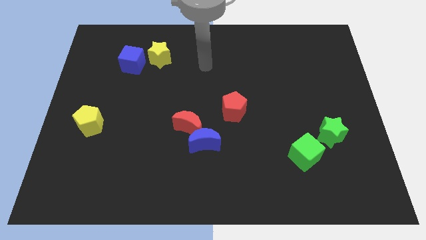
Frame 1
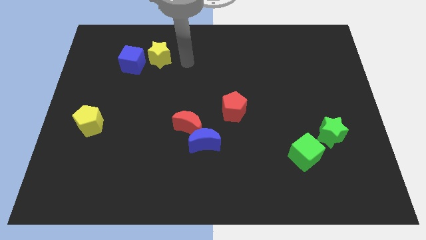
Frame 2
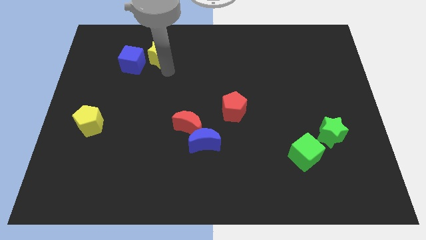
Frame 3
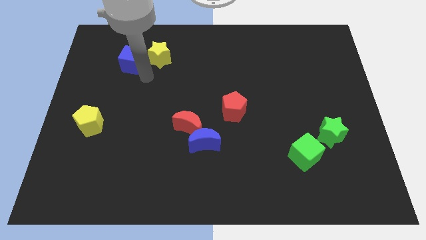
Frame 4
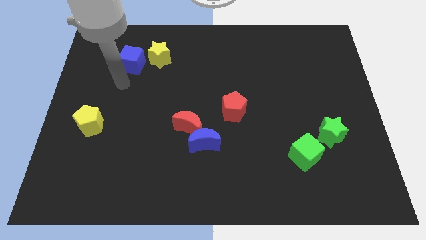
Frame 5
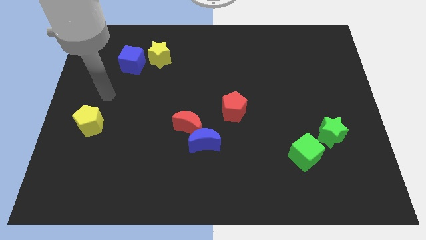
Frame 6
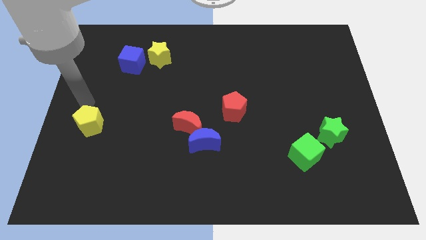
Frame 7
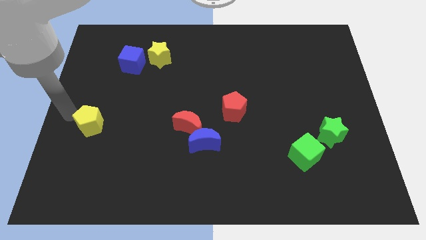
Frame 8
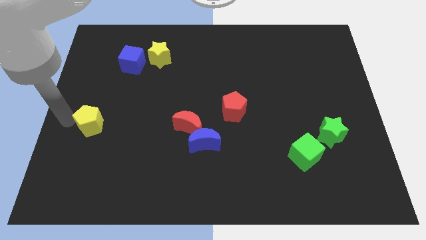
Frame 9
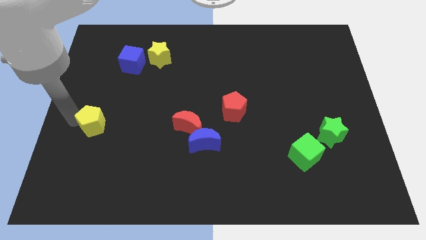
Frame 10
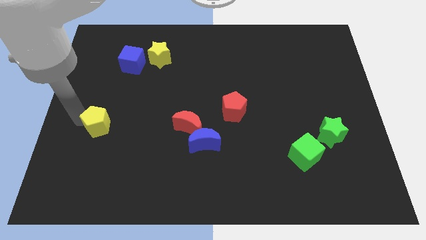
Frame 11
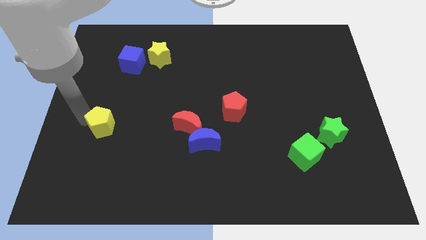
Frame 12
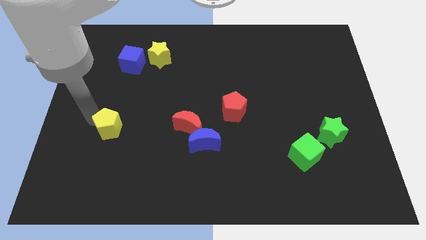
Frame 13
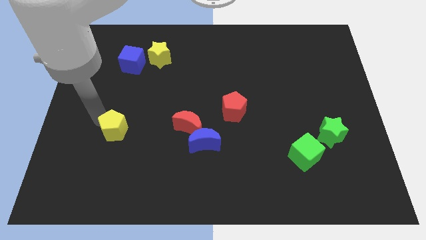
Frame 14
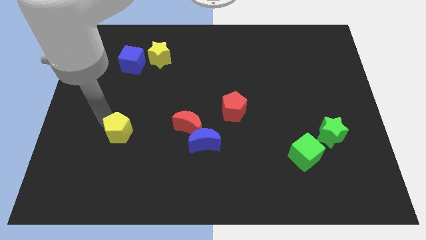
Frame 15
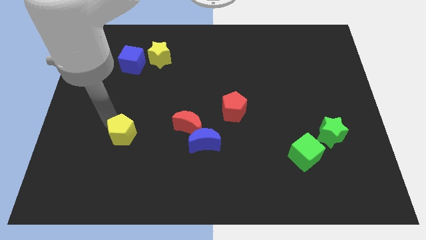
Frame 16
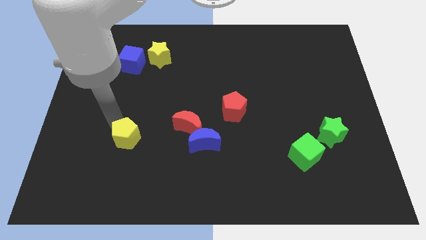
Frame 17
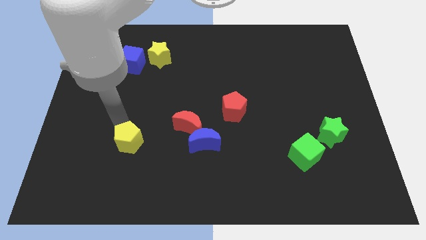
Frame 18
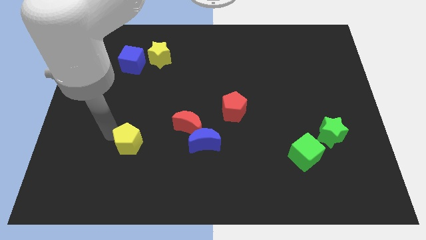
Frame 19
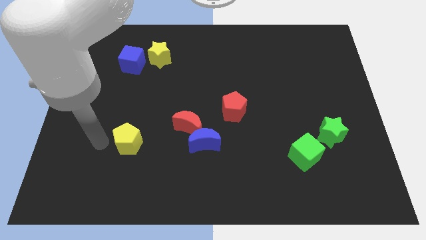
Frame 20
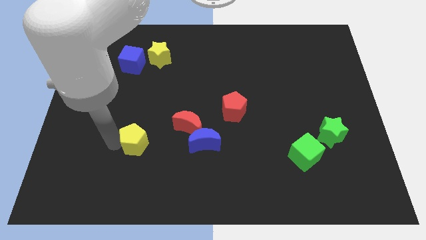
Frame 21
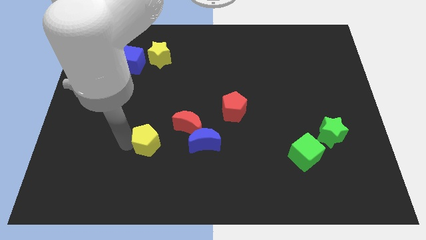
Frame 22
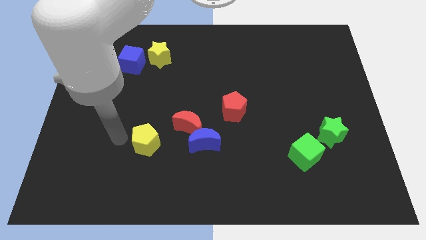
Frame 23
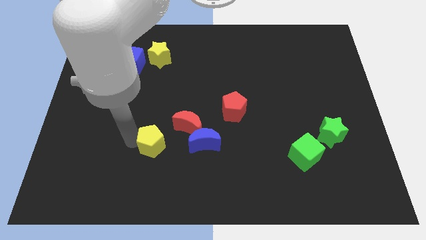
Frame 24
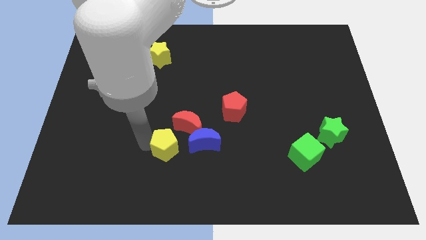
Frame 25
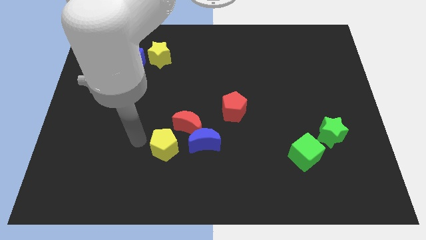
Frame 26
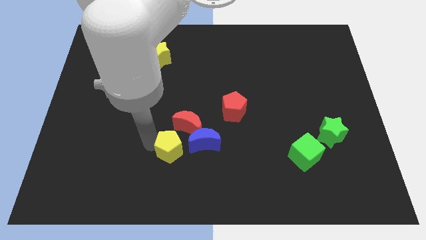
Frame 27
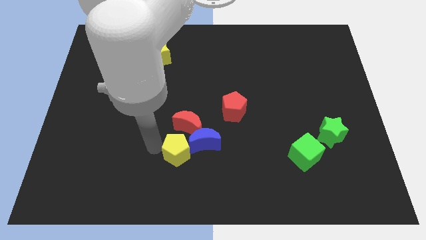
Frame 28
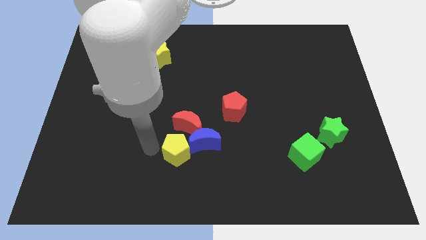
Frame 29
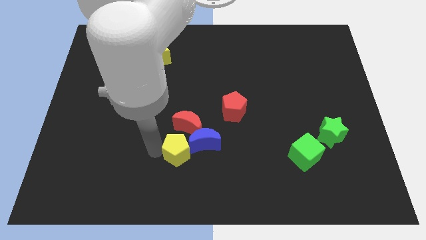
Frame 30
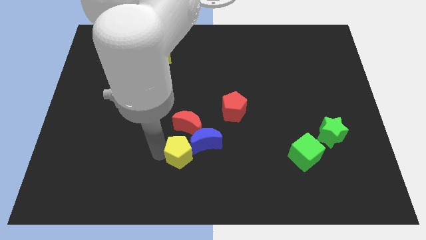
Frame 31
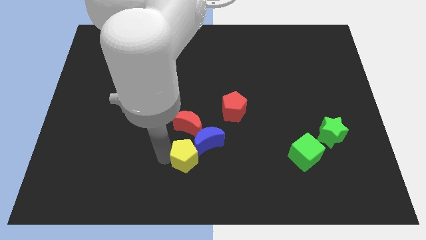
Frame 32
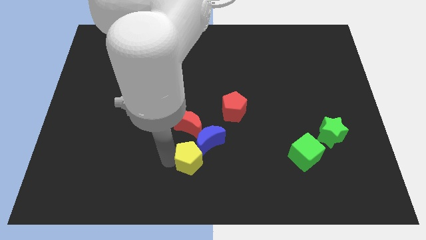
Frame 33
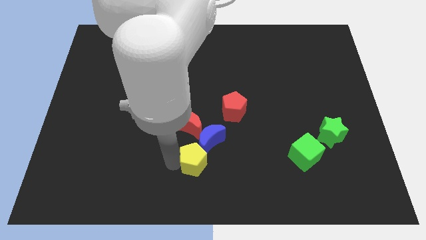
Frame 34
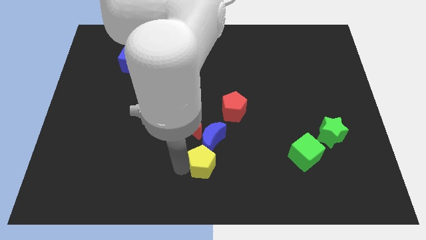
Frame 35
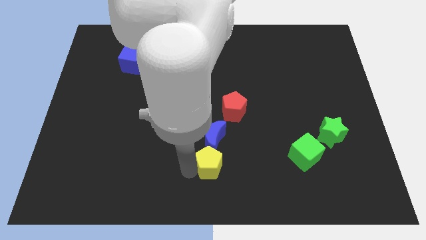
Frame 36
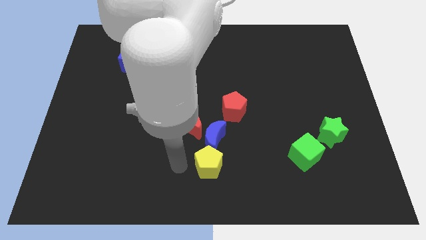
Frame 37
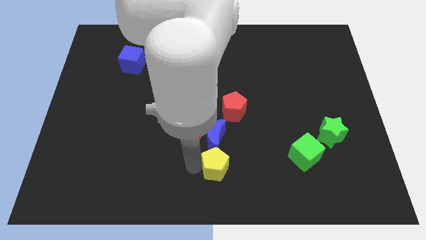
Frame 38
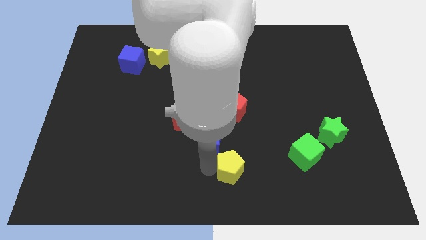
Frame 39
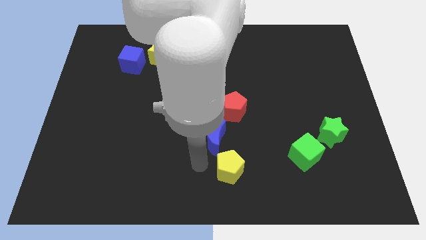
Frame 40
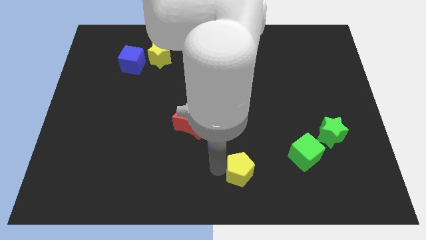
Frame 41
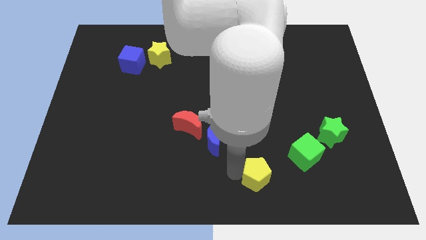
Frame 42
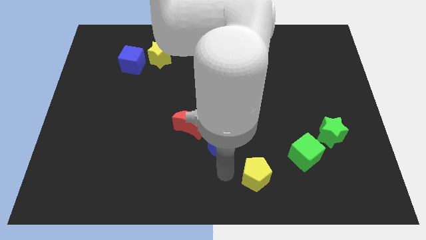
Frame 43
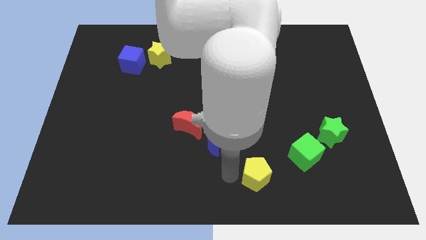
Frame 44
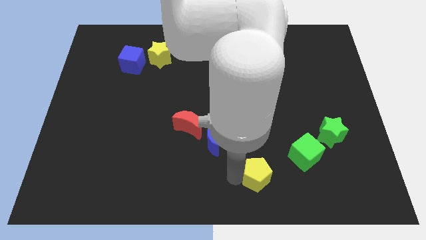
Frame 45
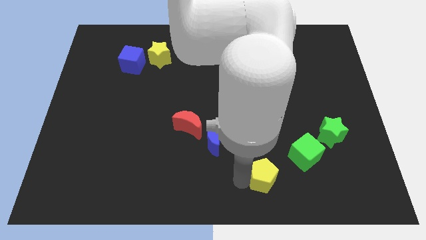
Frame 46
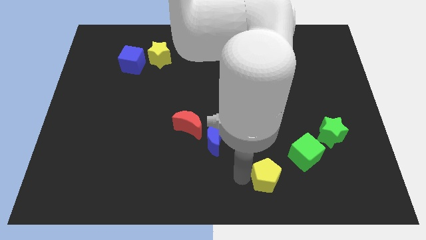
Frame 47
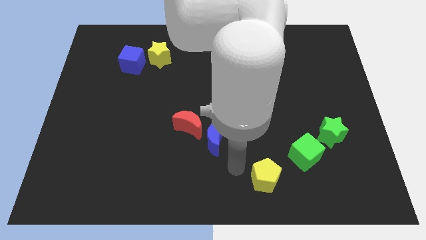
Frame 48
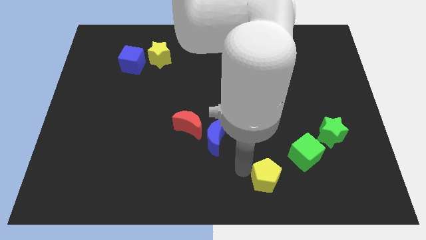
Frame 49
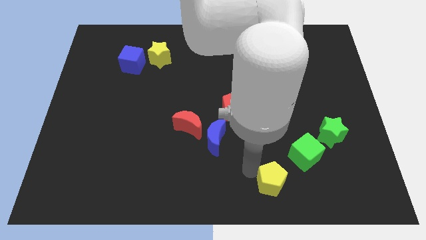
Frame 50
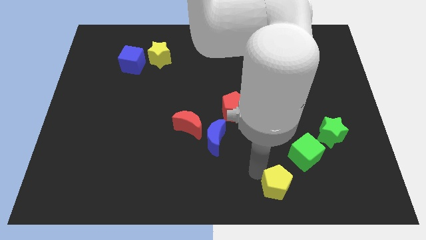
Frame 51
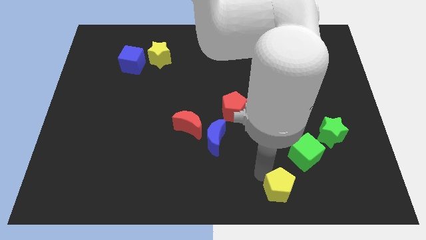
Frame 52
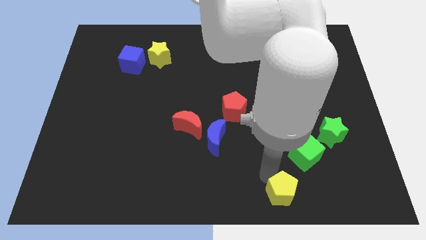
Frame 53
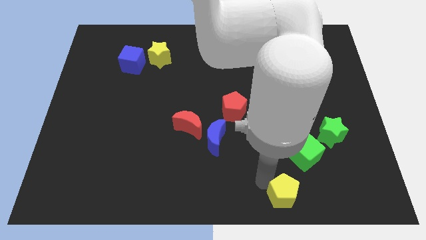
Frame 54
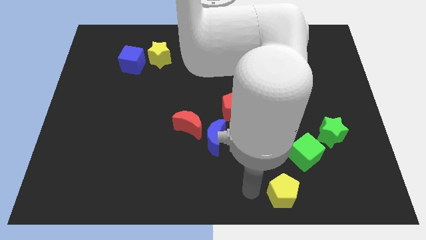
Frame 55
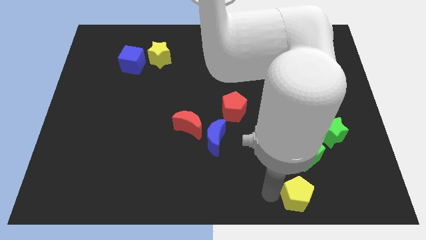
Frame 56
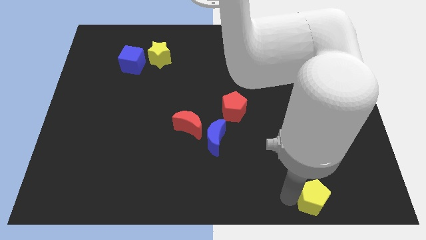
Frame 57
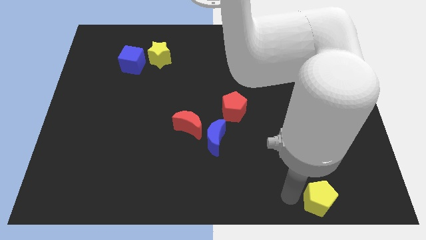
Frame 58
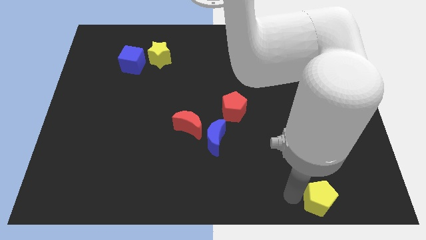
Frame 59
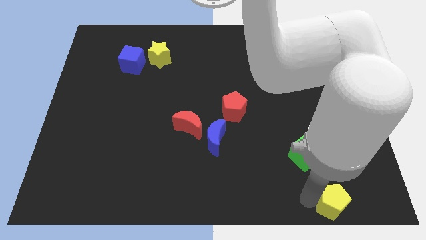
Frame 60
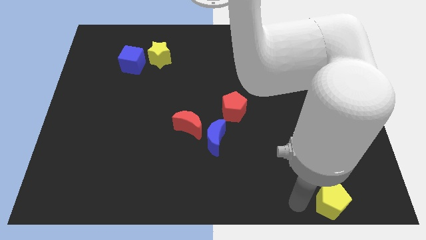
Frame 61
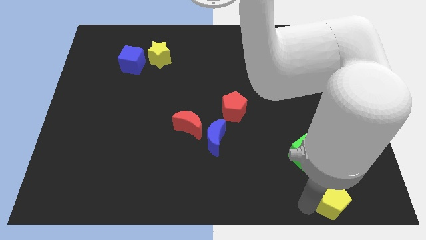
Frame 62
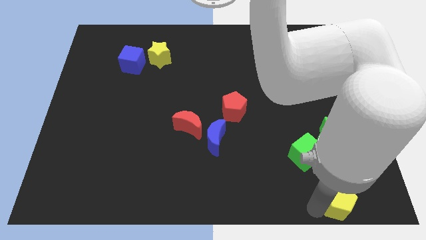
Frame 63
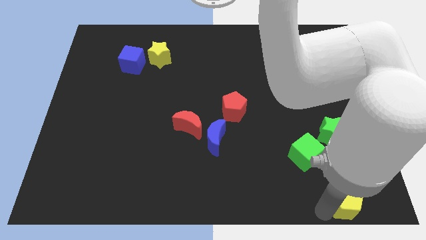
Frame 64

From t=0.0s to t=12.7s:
put the yellow pentagon to the bottom right of the board
